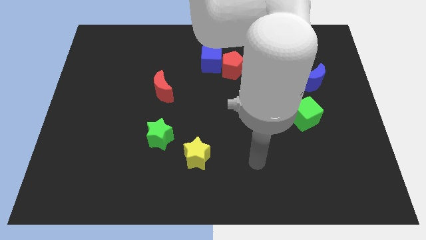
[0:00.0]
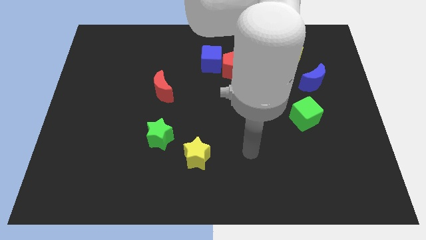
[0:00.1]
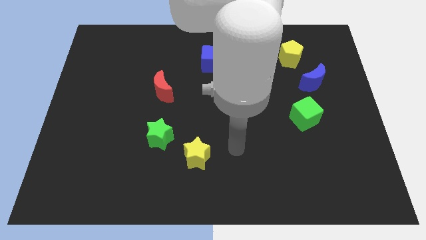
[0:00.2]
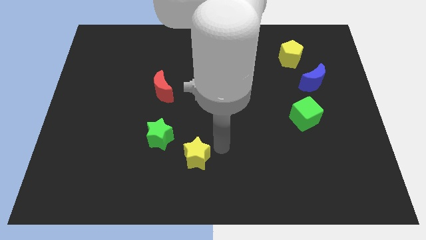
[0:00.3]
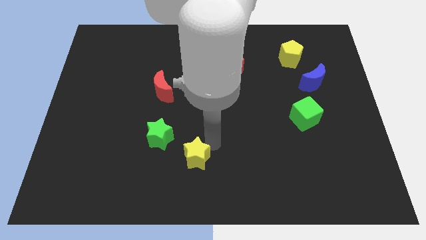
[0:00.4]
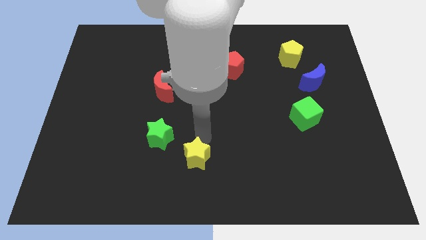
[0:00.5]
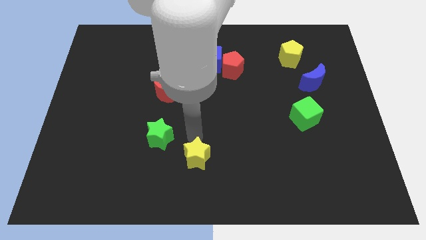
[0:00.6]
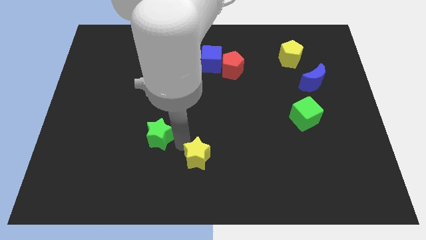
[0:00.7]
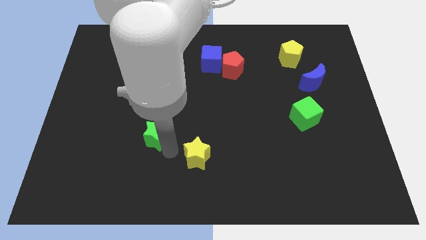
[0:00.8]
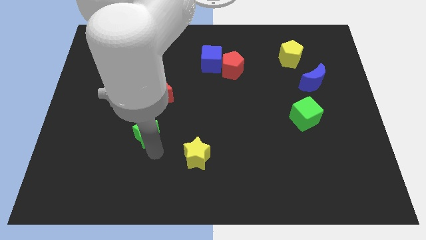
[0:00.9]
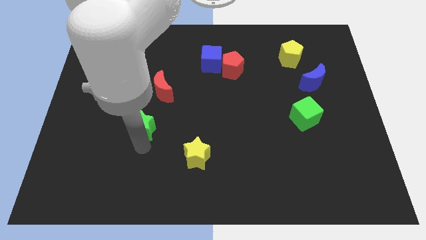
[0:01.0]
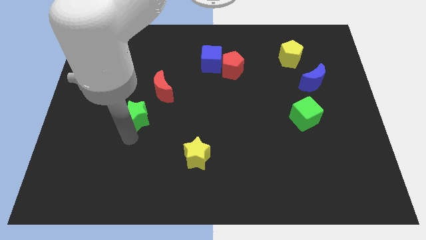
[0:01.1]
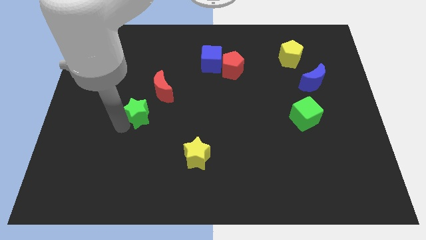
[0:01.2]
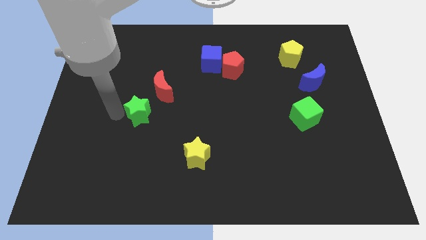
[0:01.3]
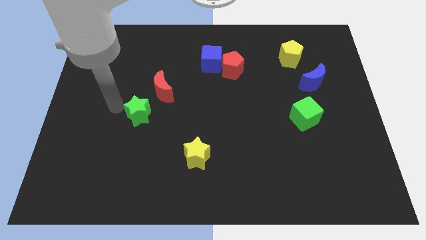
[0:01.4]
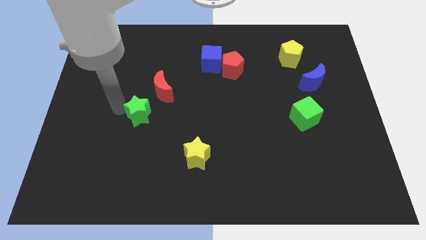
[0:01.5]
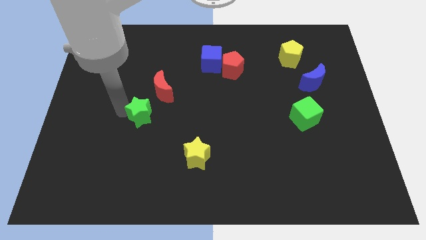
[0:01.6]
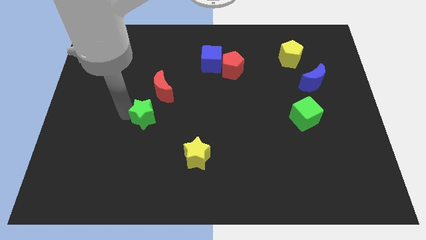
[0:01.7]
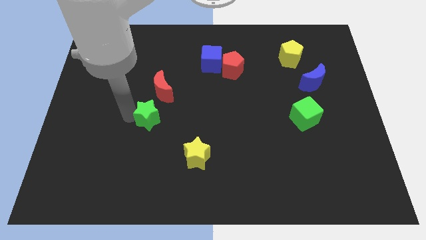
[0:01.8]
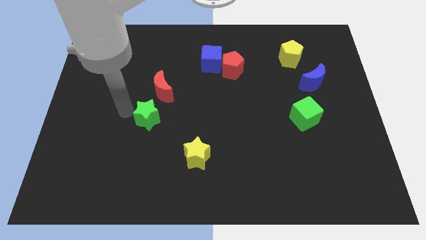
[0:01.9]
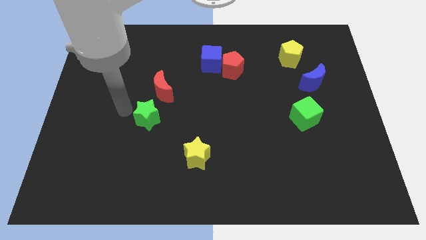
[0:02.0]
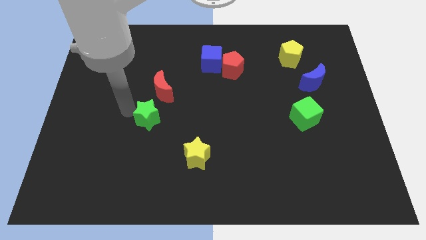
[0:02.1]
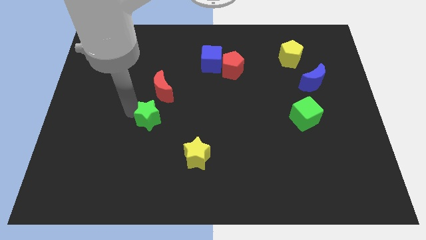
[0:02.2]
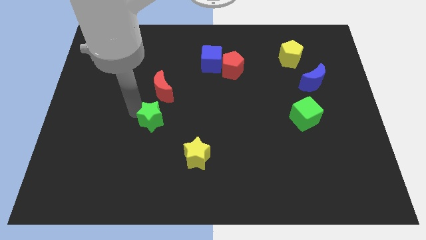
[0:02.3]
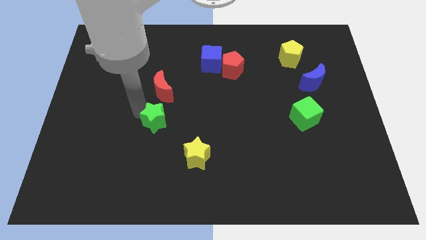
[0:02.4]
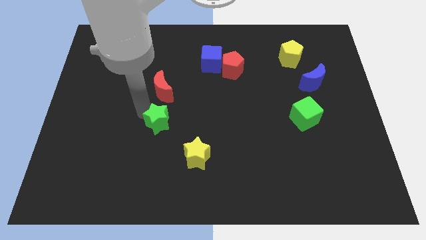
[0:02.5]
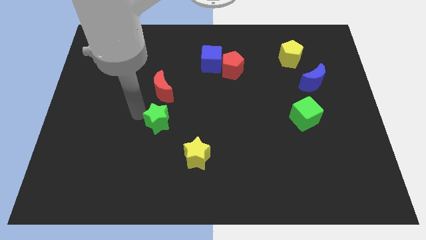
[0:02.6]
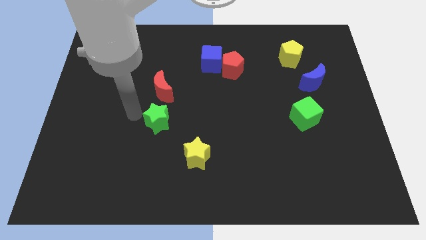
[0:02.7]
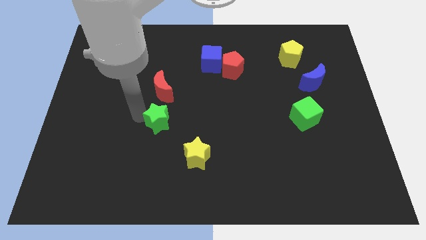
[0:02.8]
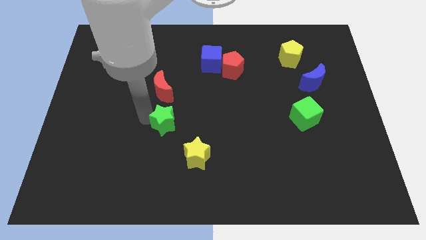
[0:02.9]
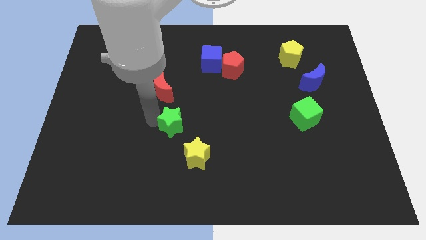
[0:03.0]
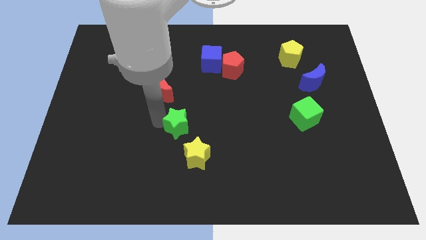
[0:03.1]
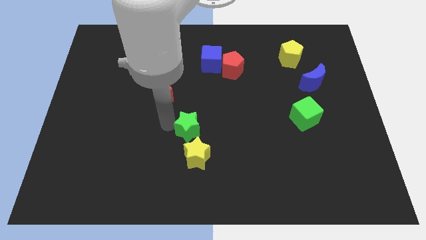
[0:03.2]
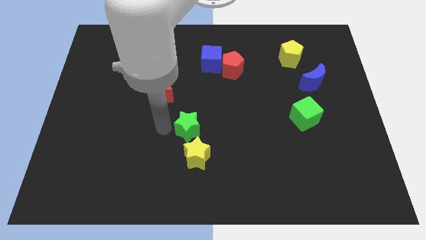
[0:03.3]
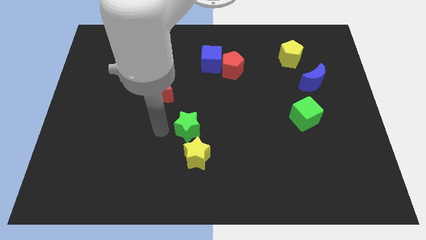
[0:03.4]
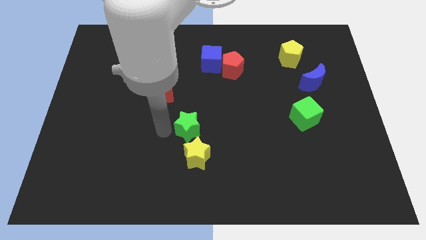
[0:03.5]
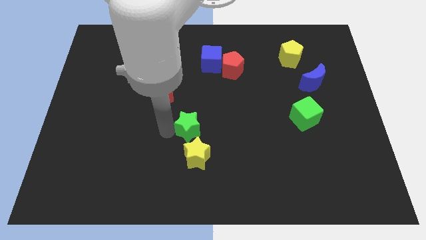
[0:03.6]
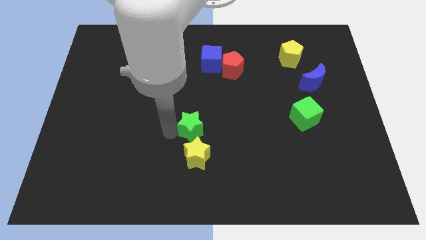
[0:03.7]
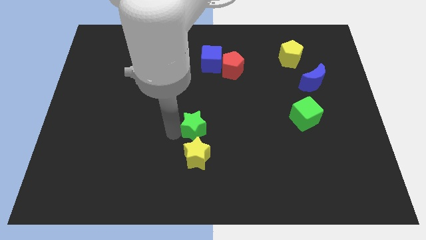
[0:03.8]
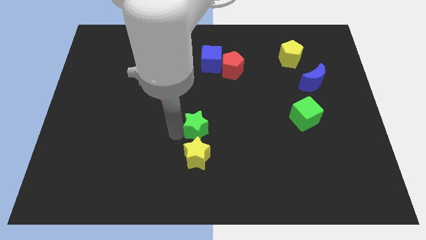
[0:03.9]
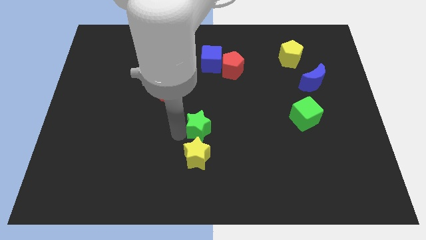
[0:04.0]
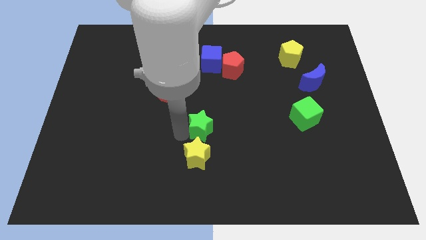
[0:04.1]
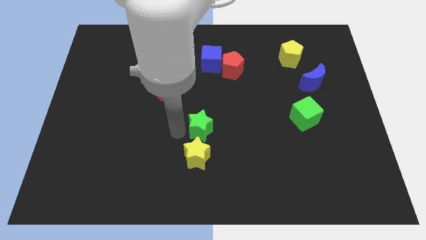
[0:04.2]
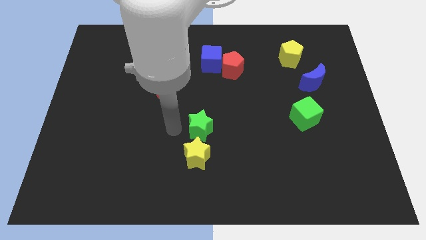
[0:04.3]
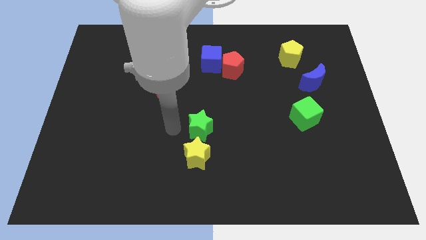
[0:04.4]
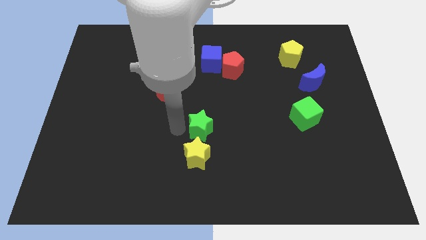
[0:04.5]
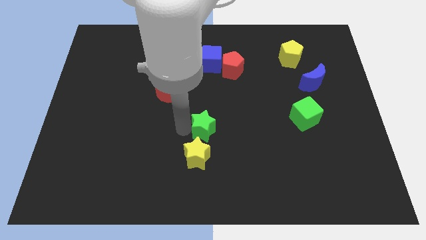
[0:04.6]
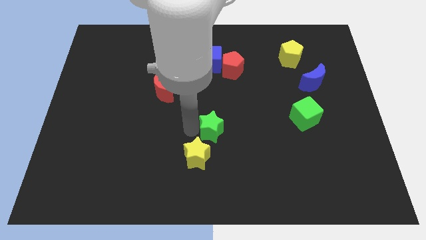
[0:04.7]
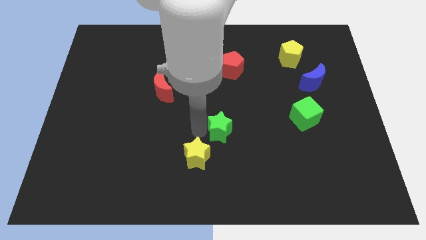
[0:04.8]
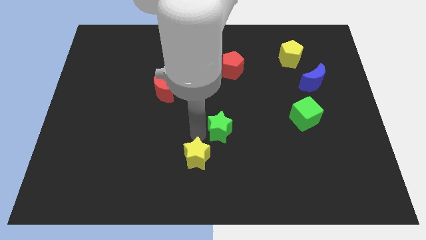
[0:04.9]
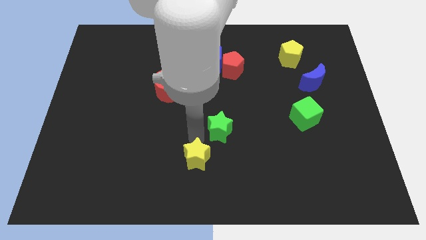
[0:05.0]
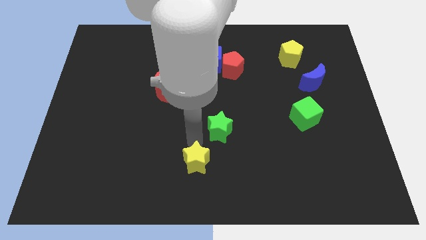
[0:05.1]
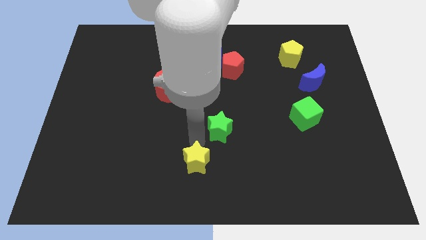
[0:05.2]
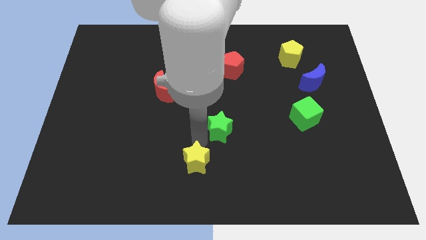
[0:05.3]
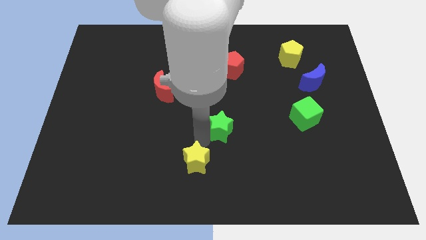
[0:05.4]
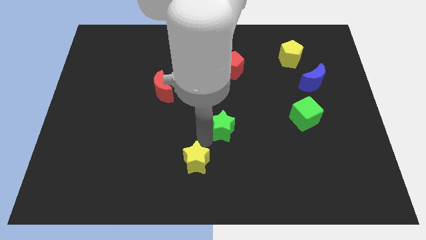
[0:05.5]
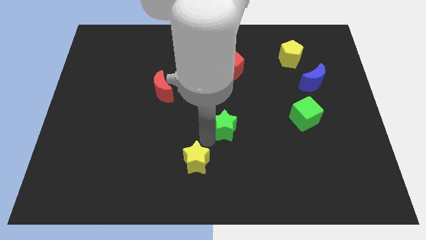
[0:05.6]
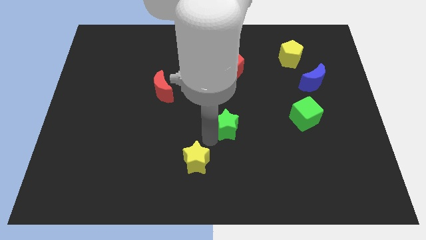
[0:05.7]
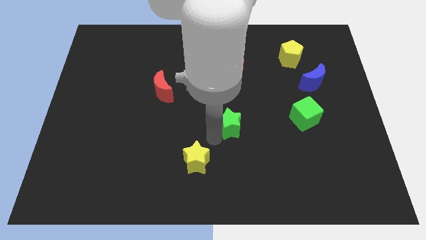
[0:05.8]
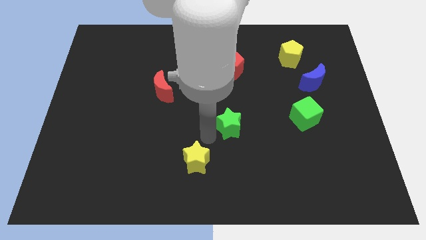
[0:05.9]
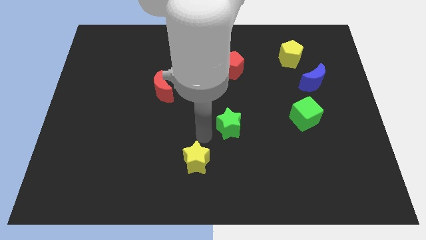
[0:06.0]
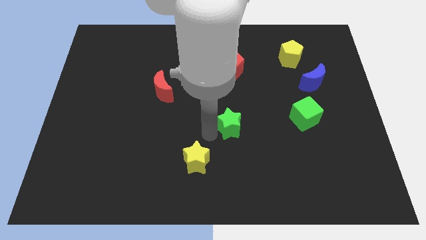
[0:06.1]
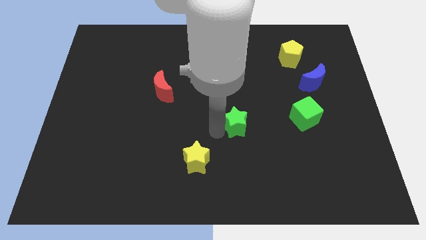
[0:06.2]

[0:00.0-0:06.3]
move the green star just left of the green cube

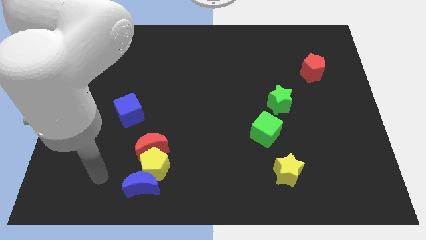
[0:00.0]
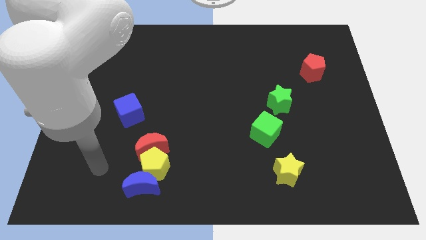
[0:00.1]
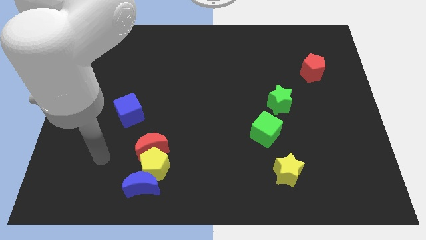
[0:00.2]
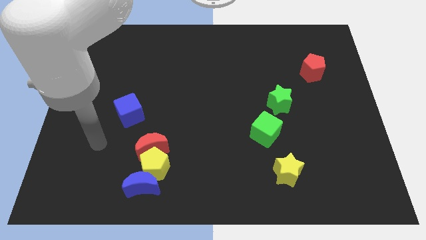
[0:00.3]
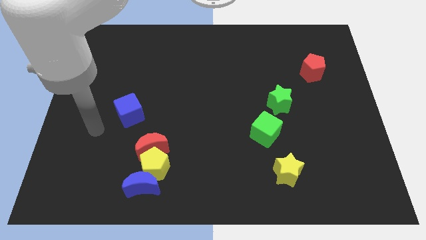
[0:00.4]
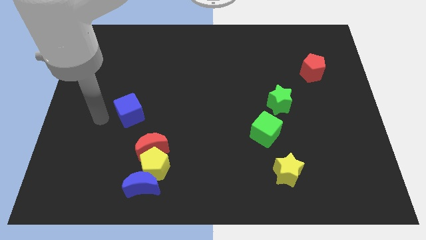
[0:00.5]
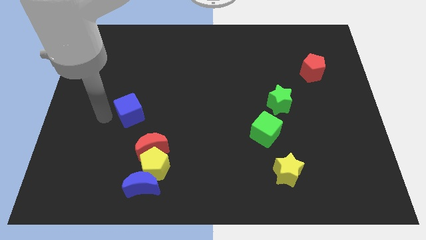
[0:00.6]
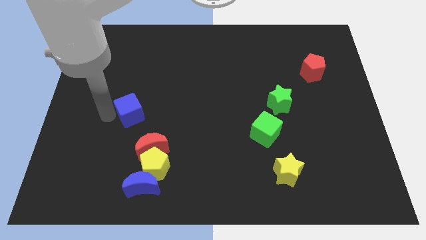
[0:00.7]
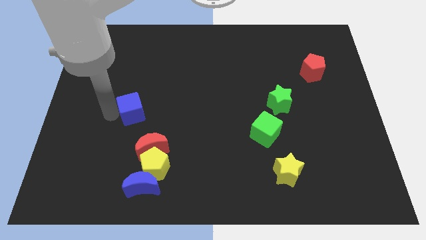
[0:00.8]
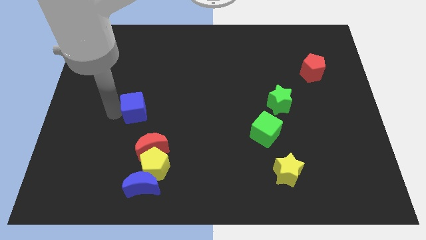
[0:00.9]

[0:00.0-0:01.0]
move the blue cube to the top of the red moon
